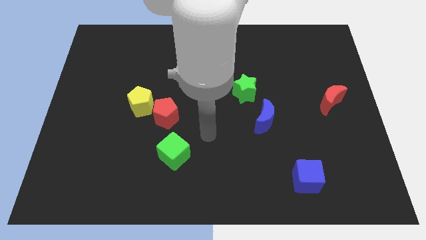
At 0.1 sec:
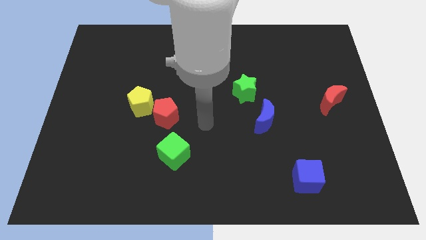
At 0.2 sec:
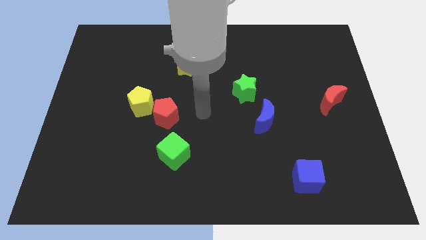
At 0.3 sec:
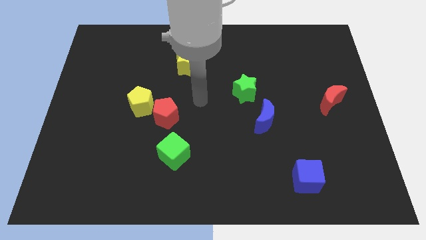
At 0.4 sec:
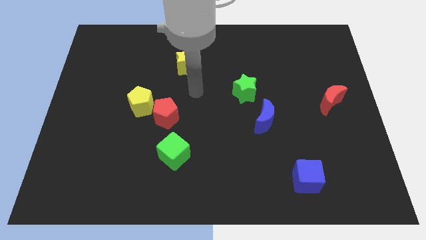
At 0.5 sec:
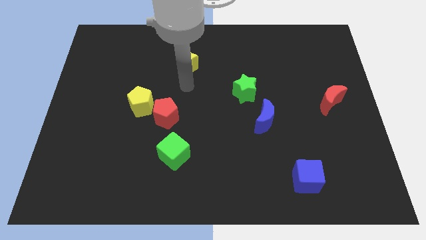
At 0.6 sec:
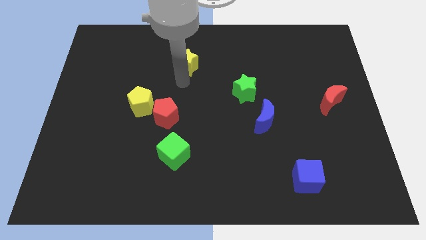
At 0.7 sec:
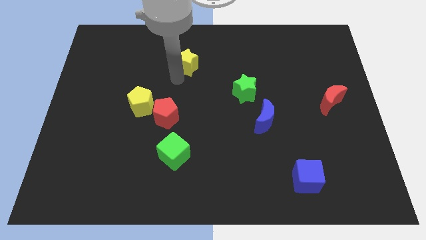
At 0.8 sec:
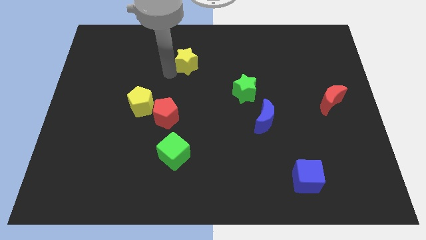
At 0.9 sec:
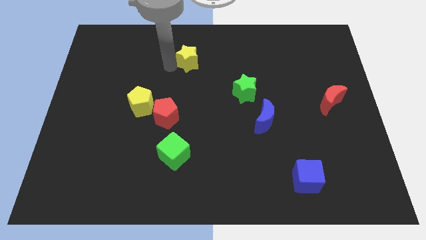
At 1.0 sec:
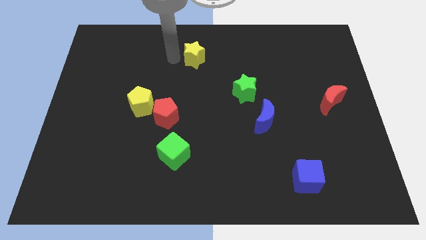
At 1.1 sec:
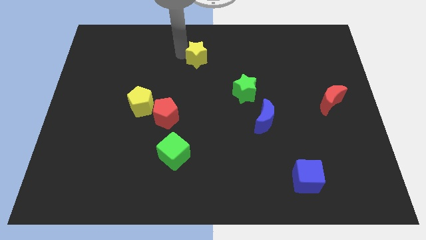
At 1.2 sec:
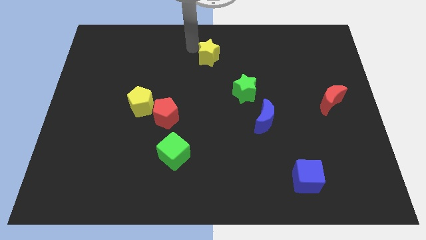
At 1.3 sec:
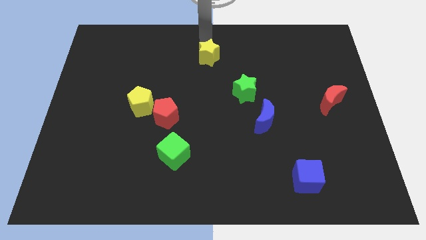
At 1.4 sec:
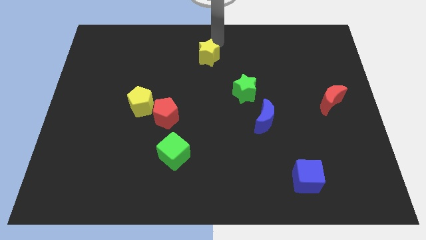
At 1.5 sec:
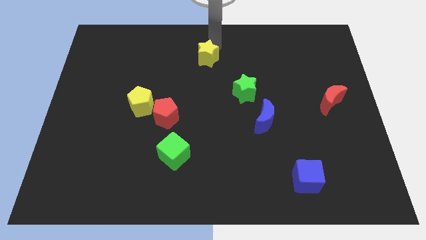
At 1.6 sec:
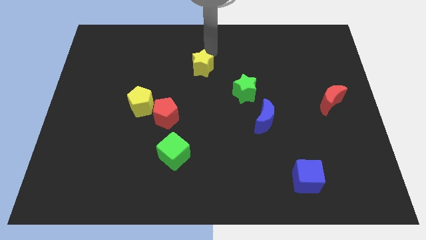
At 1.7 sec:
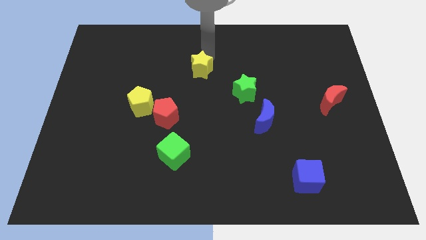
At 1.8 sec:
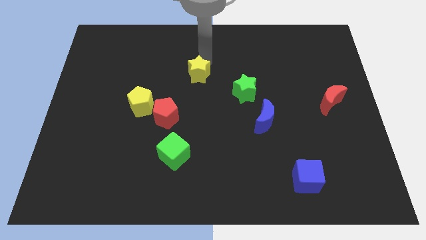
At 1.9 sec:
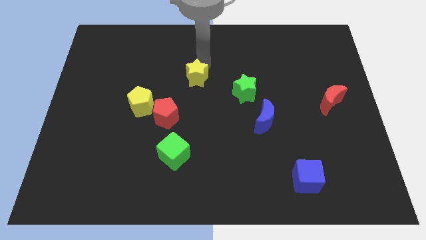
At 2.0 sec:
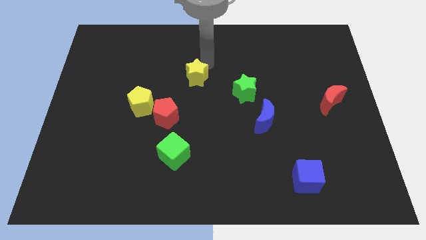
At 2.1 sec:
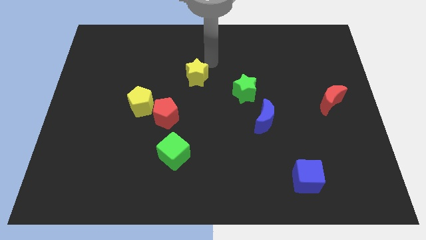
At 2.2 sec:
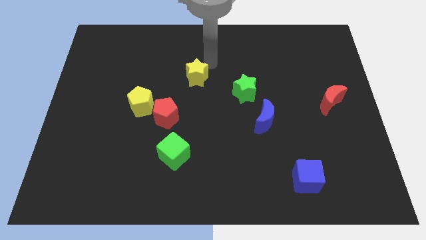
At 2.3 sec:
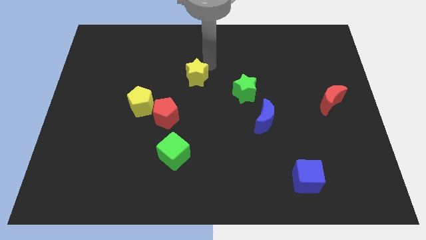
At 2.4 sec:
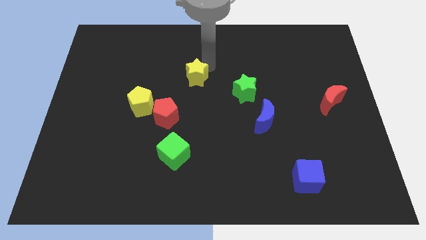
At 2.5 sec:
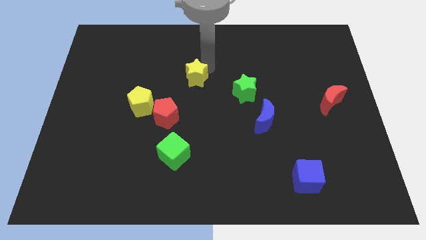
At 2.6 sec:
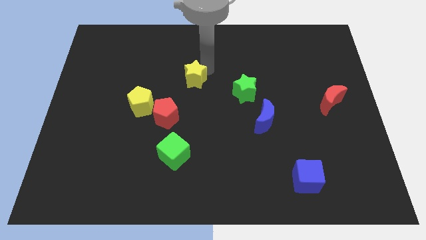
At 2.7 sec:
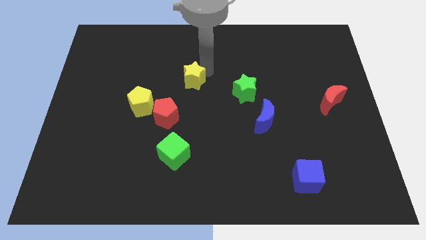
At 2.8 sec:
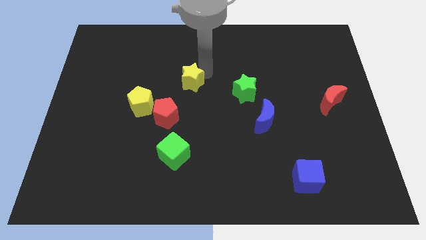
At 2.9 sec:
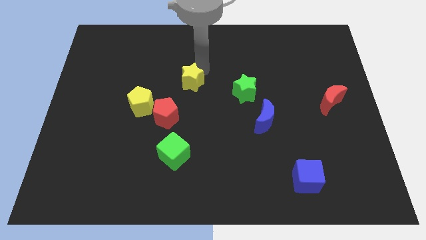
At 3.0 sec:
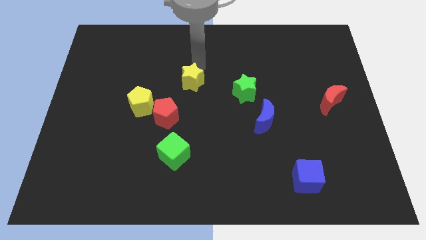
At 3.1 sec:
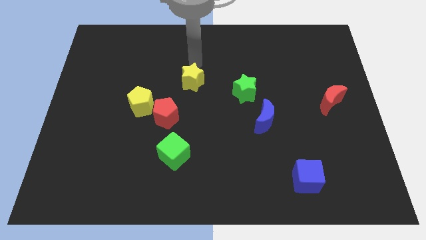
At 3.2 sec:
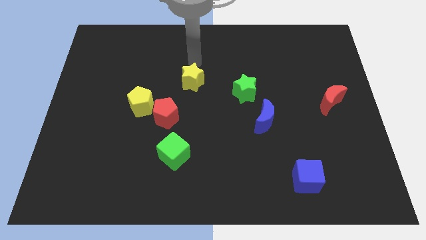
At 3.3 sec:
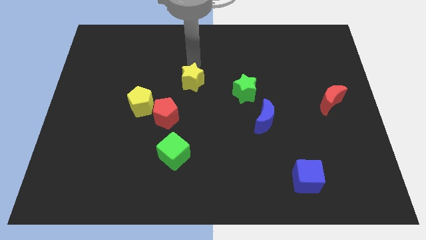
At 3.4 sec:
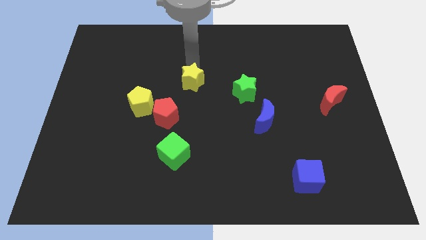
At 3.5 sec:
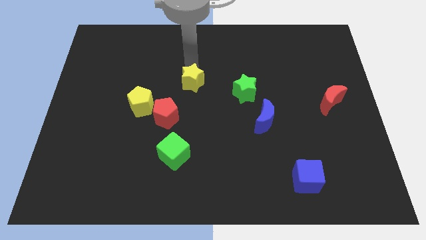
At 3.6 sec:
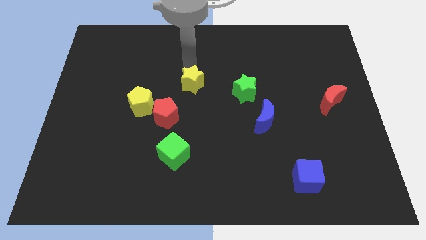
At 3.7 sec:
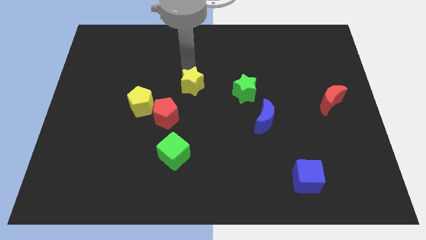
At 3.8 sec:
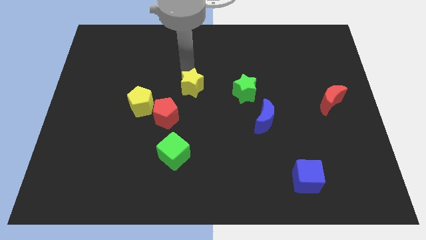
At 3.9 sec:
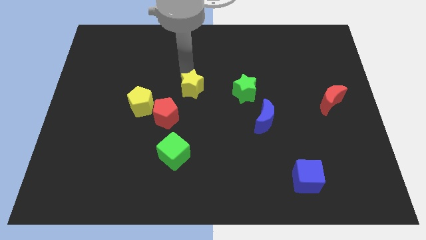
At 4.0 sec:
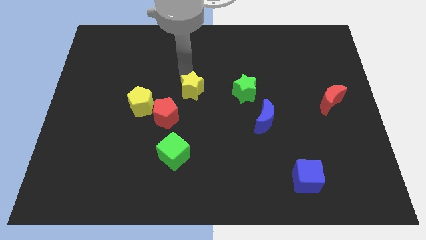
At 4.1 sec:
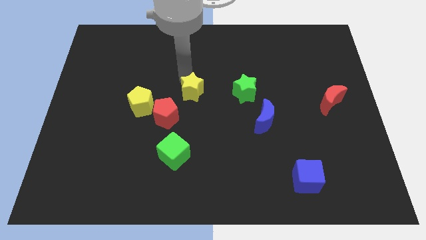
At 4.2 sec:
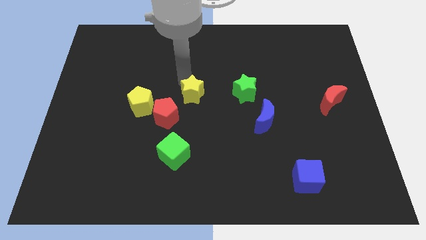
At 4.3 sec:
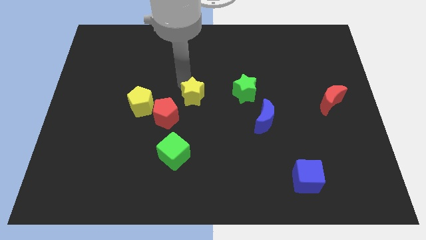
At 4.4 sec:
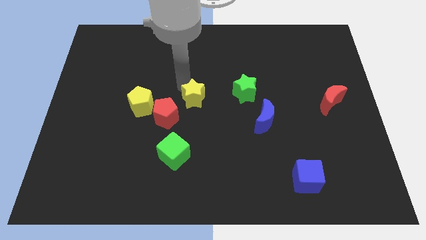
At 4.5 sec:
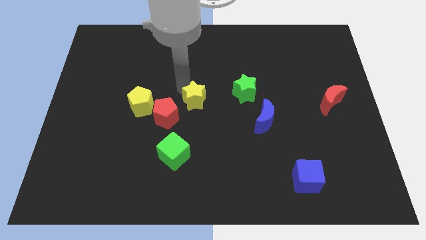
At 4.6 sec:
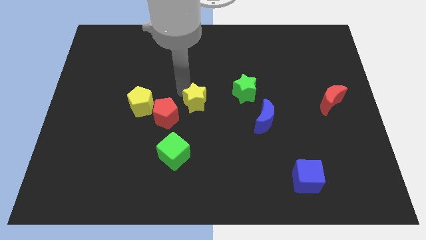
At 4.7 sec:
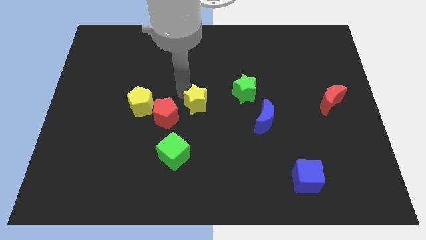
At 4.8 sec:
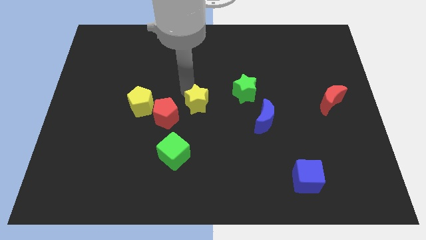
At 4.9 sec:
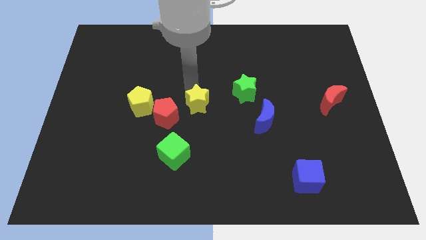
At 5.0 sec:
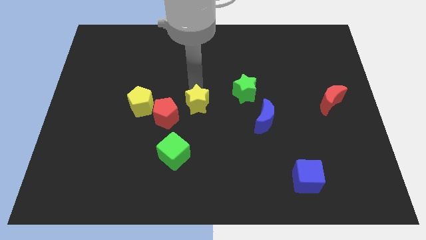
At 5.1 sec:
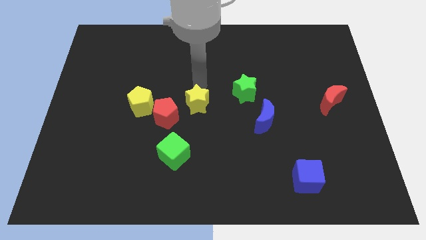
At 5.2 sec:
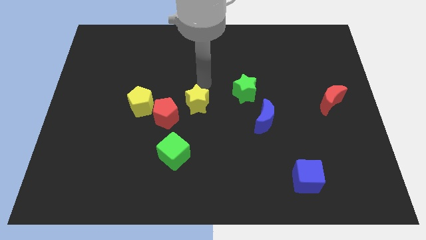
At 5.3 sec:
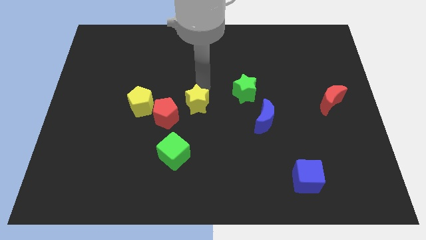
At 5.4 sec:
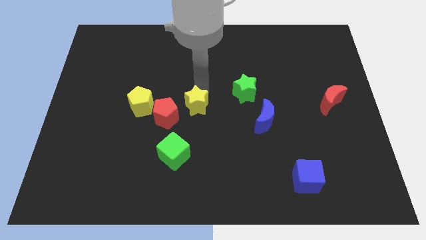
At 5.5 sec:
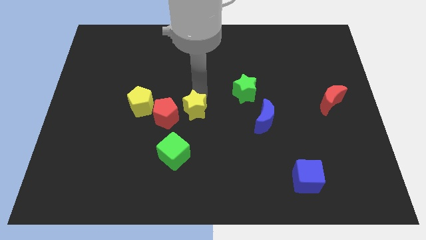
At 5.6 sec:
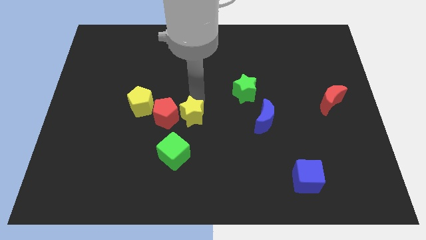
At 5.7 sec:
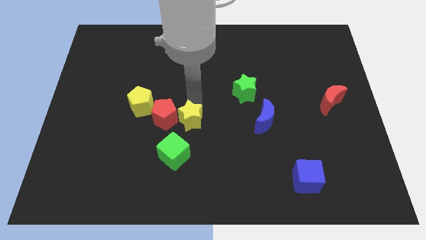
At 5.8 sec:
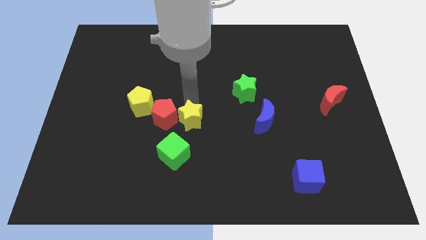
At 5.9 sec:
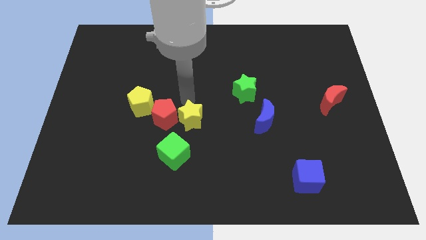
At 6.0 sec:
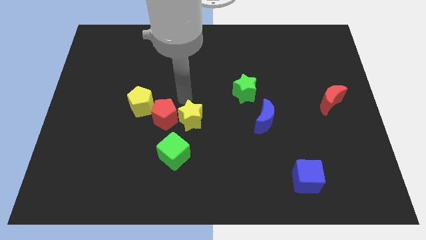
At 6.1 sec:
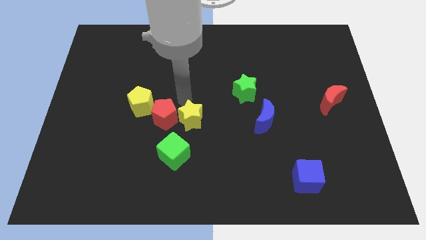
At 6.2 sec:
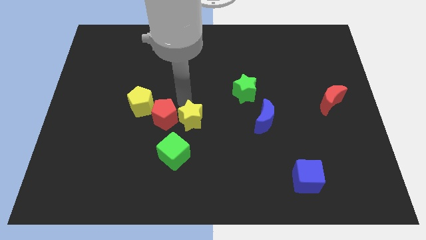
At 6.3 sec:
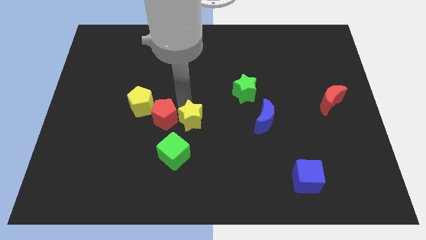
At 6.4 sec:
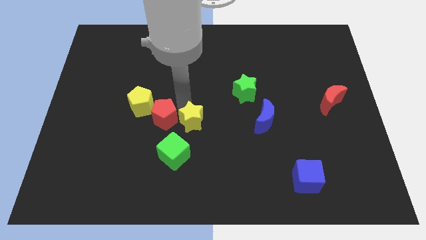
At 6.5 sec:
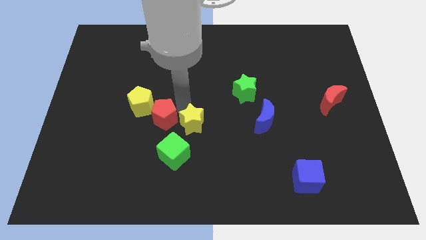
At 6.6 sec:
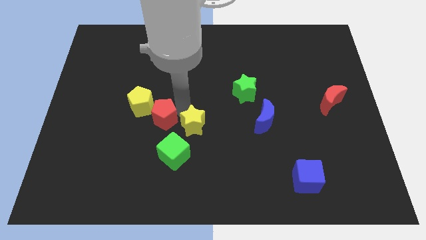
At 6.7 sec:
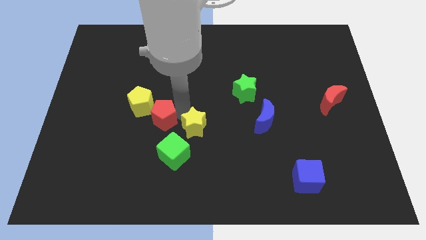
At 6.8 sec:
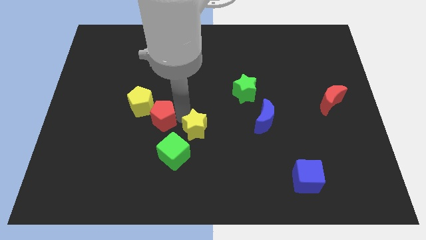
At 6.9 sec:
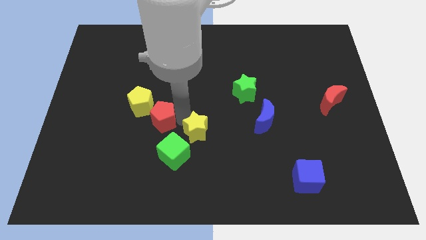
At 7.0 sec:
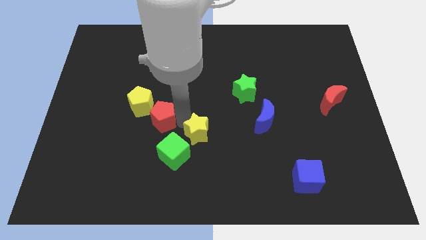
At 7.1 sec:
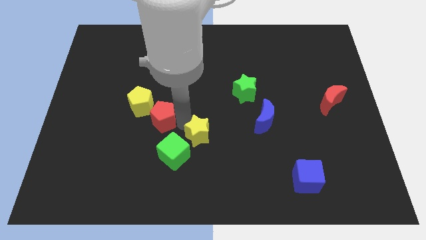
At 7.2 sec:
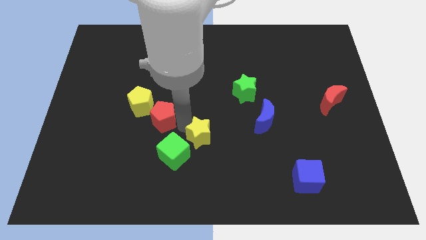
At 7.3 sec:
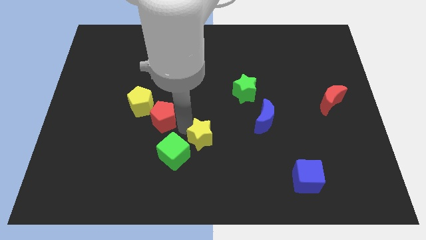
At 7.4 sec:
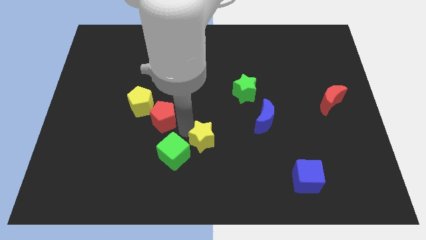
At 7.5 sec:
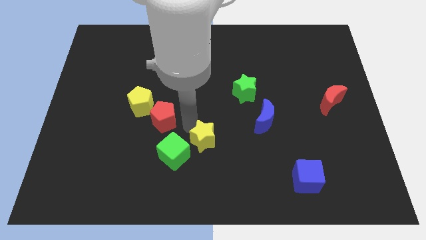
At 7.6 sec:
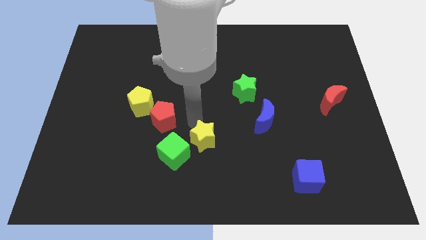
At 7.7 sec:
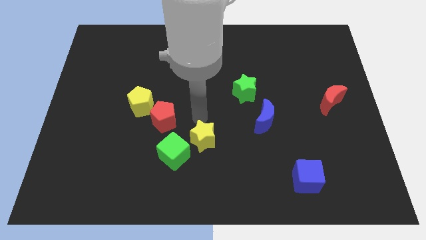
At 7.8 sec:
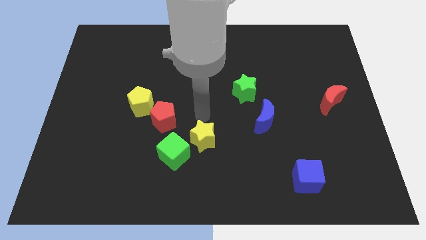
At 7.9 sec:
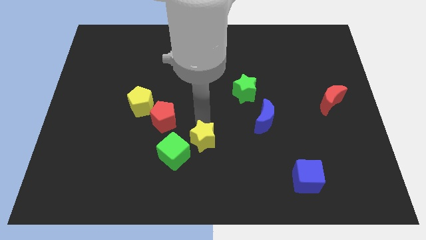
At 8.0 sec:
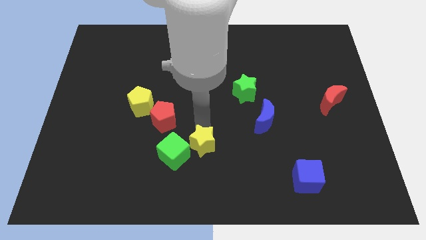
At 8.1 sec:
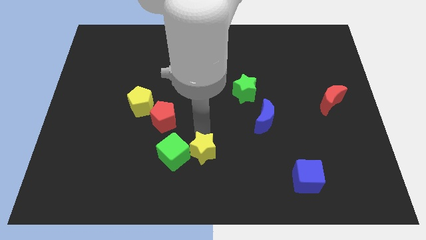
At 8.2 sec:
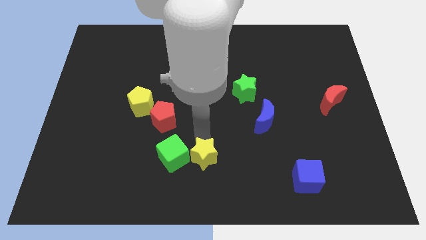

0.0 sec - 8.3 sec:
slide the yellow star to the bottom
